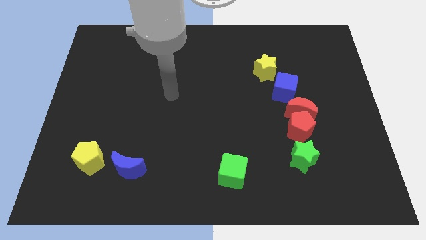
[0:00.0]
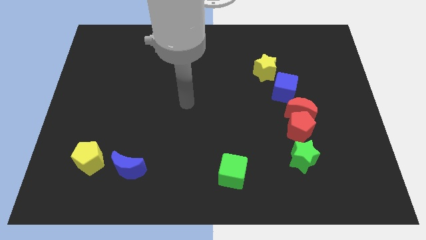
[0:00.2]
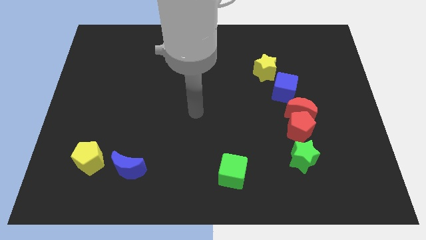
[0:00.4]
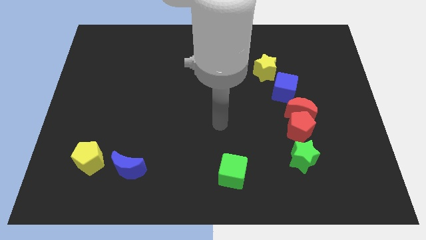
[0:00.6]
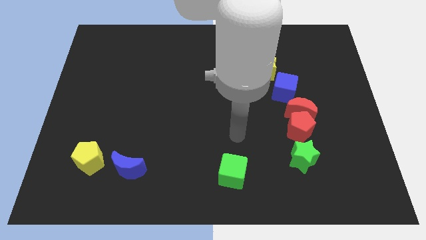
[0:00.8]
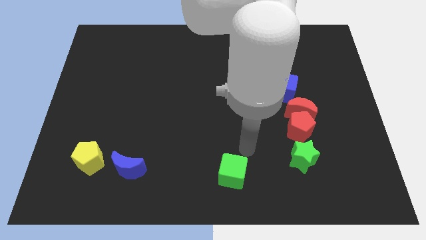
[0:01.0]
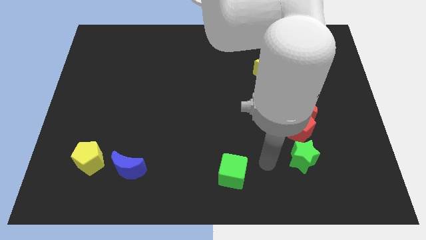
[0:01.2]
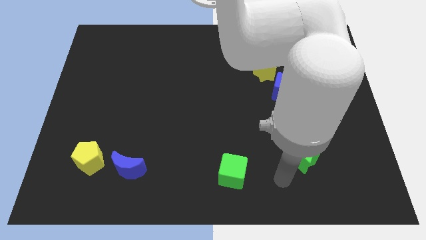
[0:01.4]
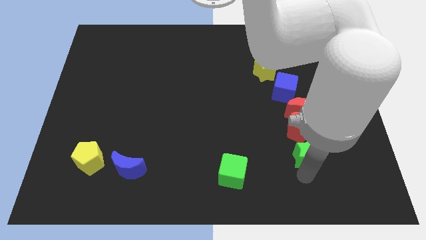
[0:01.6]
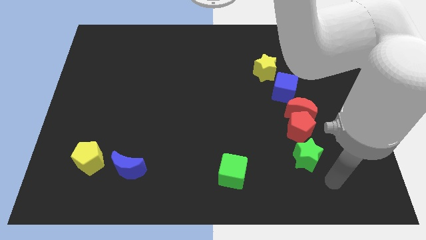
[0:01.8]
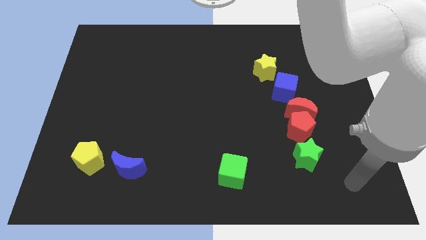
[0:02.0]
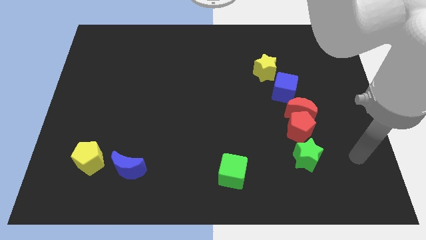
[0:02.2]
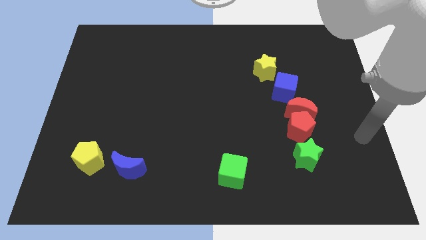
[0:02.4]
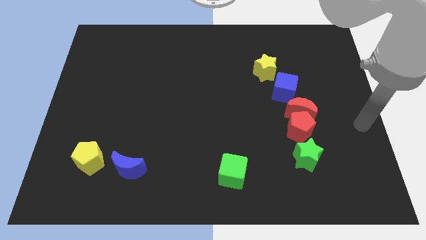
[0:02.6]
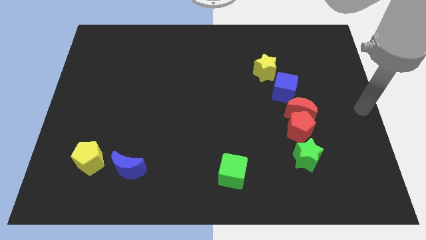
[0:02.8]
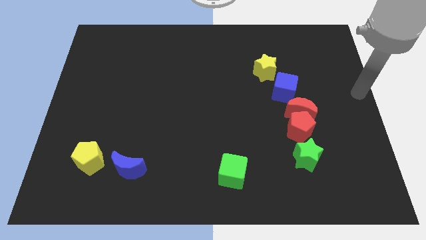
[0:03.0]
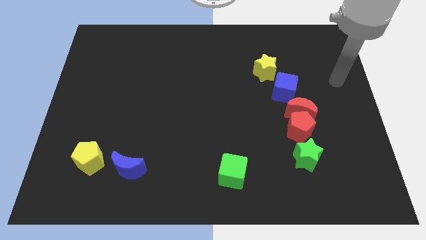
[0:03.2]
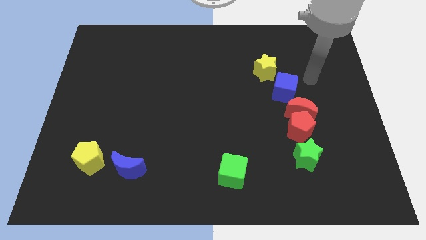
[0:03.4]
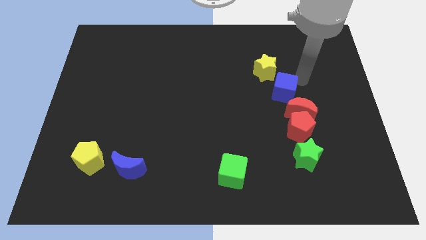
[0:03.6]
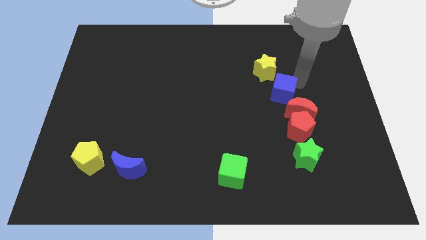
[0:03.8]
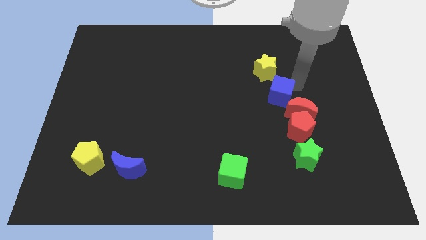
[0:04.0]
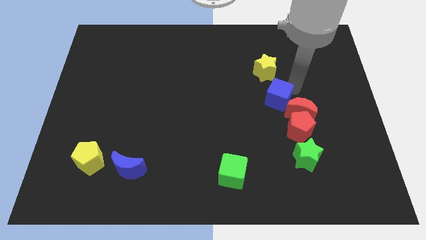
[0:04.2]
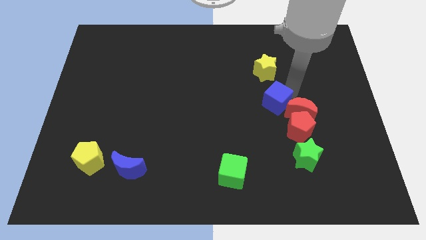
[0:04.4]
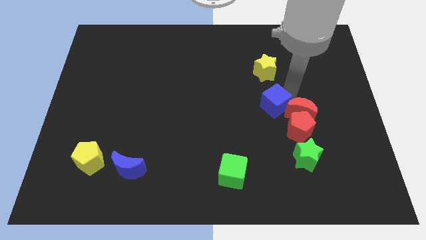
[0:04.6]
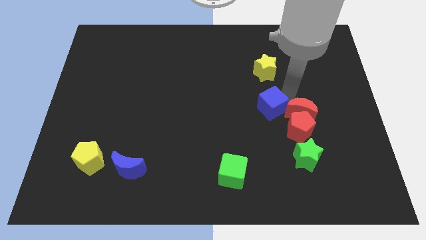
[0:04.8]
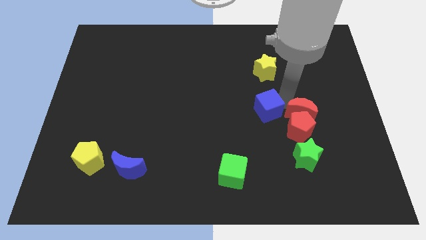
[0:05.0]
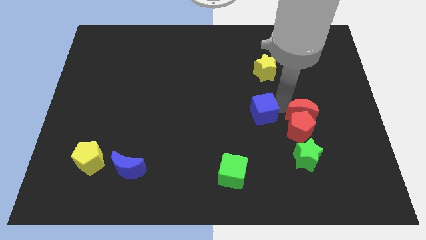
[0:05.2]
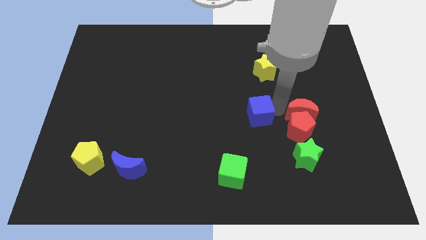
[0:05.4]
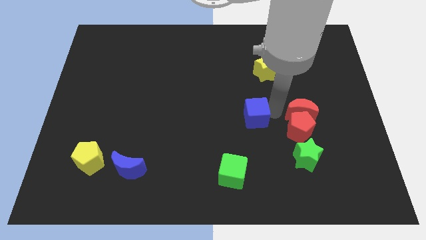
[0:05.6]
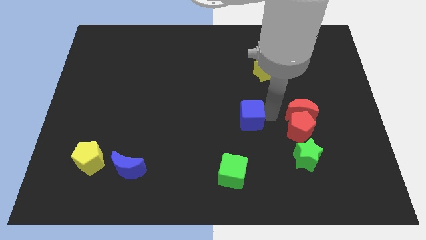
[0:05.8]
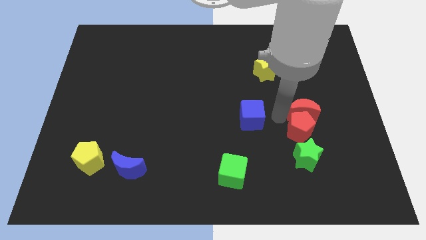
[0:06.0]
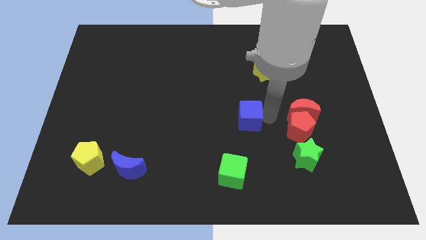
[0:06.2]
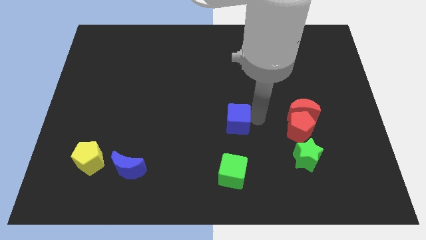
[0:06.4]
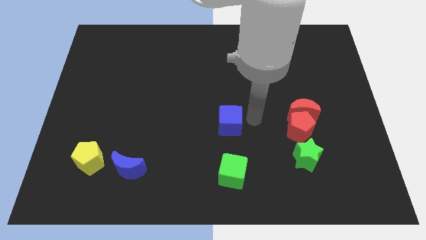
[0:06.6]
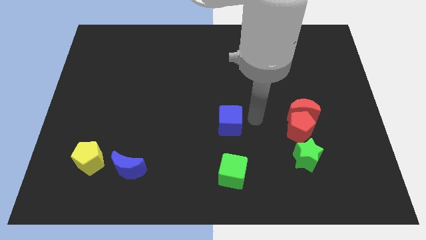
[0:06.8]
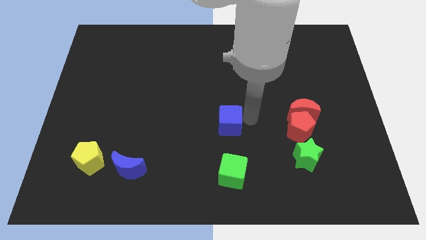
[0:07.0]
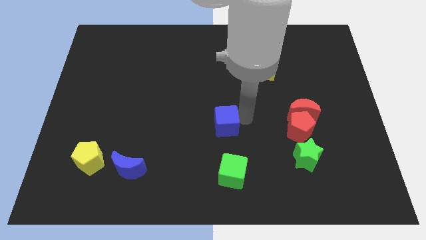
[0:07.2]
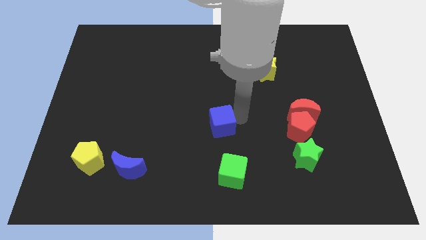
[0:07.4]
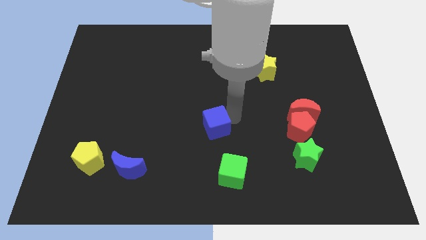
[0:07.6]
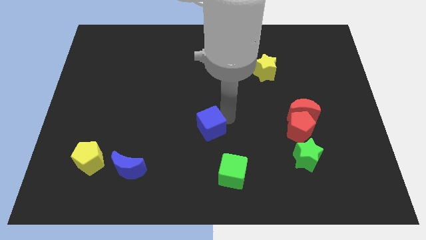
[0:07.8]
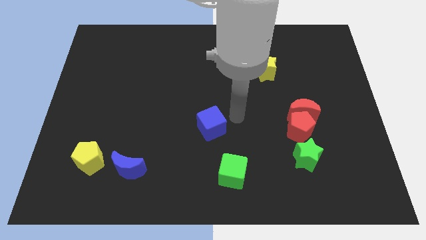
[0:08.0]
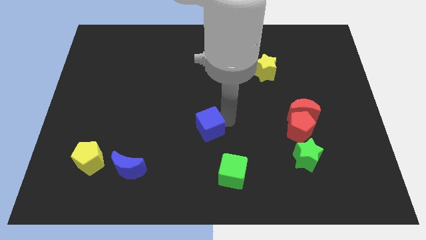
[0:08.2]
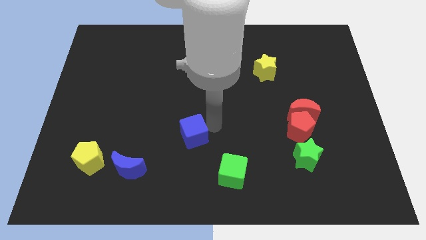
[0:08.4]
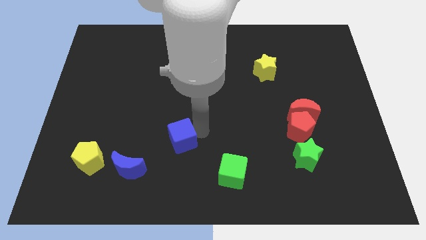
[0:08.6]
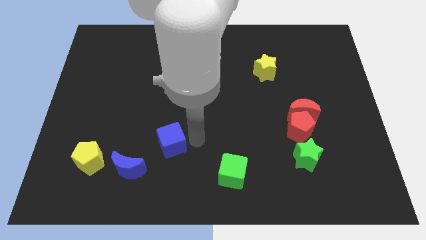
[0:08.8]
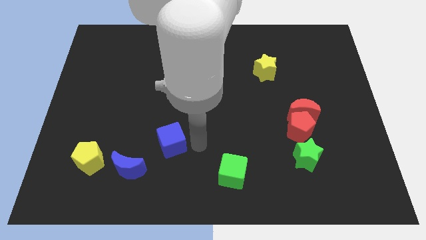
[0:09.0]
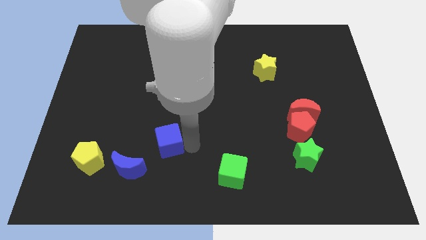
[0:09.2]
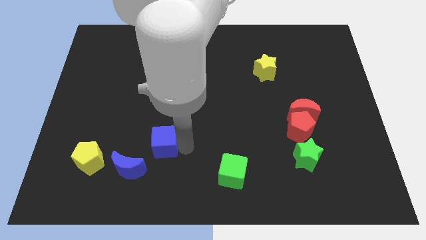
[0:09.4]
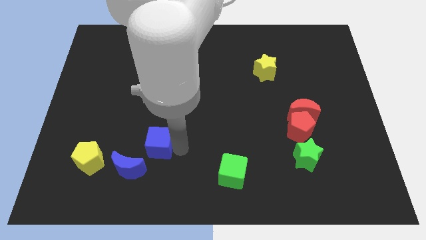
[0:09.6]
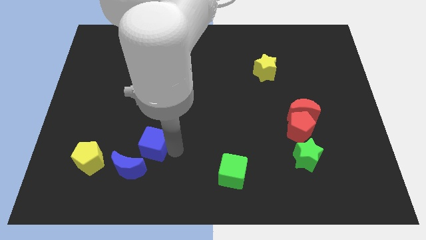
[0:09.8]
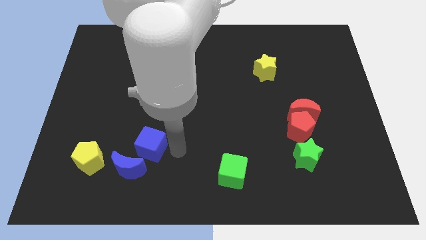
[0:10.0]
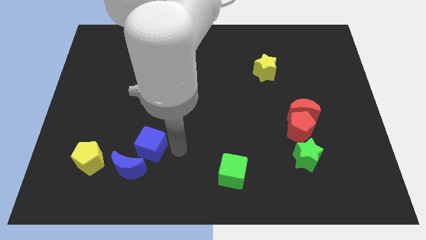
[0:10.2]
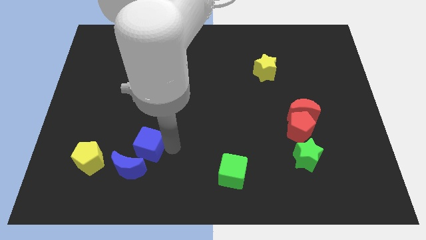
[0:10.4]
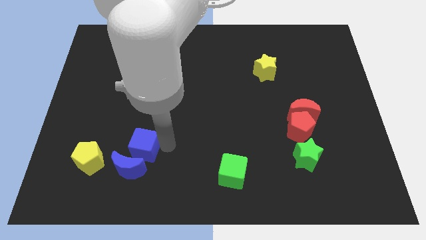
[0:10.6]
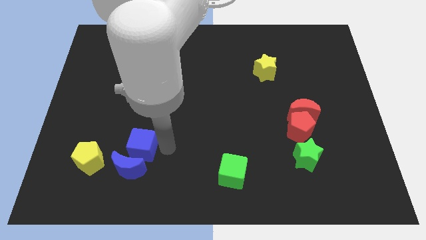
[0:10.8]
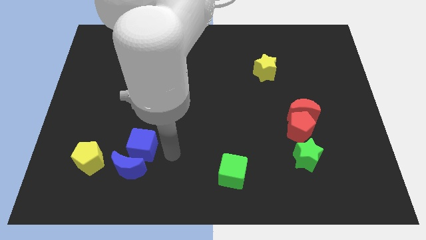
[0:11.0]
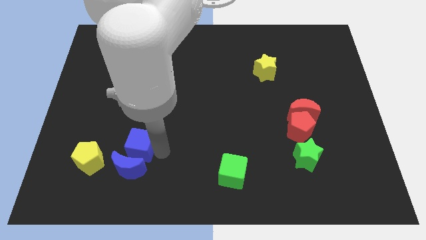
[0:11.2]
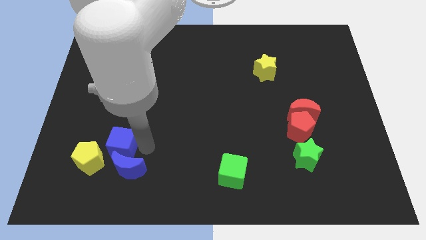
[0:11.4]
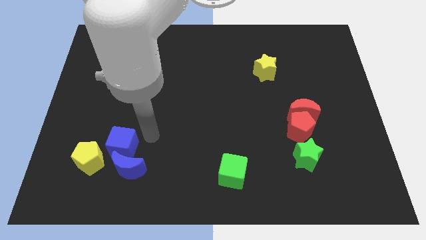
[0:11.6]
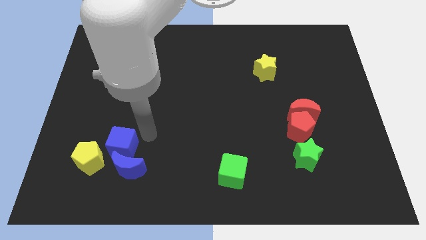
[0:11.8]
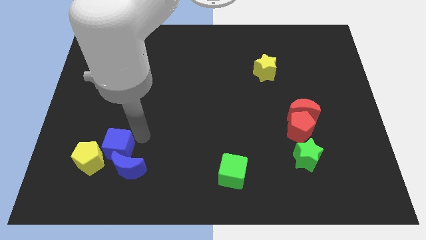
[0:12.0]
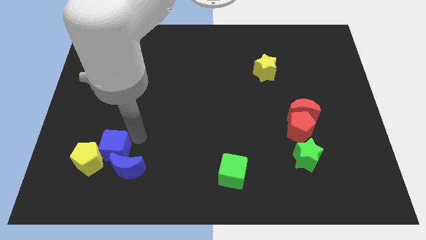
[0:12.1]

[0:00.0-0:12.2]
put the blue cube towards the yellow pentagon

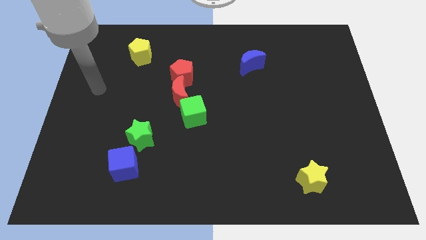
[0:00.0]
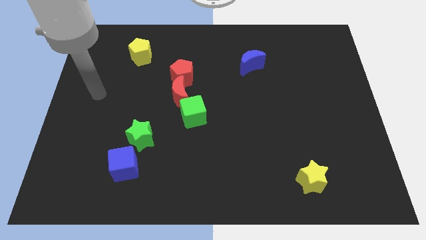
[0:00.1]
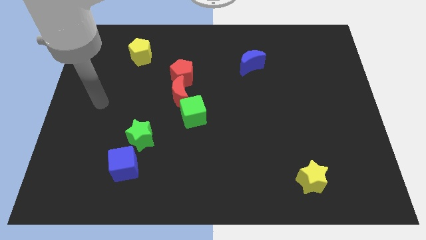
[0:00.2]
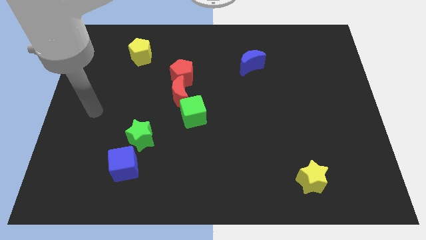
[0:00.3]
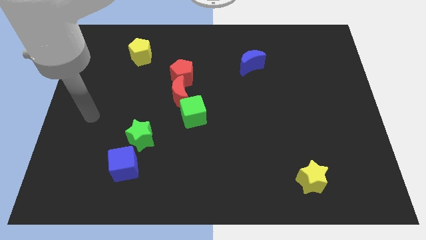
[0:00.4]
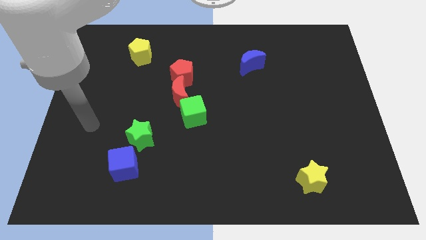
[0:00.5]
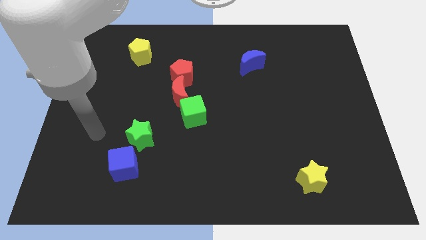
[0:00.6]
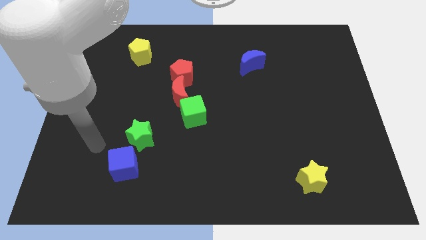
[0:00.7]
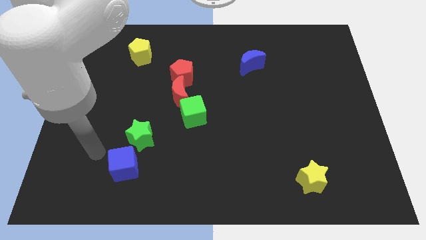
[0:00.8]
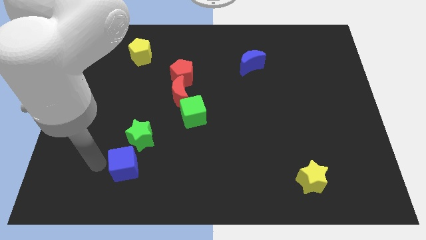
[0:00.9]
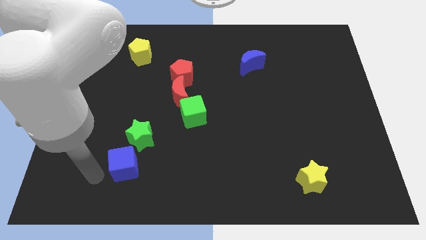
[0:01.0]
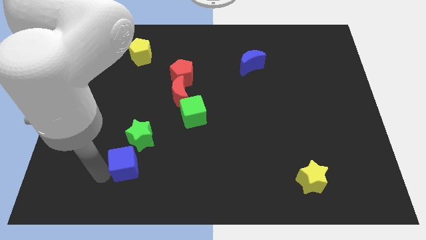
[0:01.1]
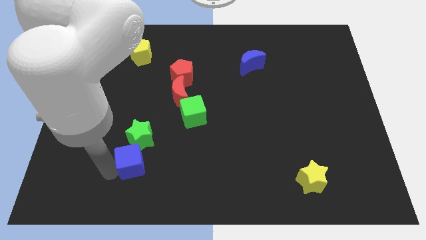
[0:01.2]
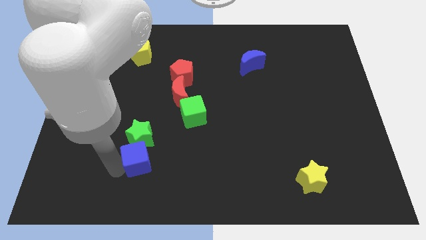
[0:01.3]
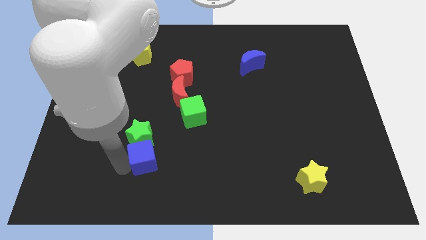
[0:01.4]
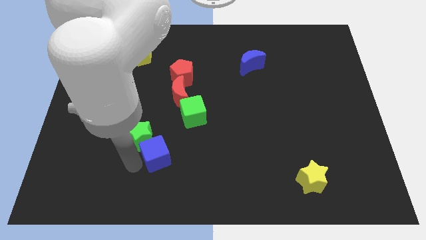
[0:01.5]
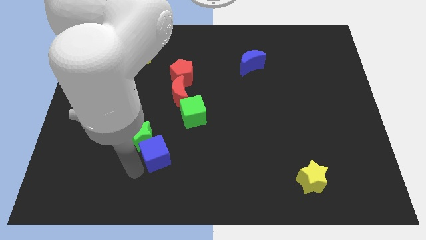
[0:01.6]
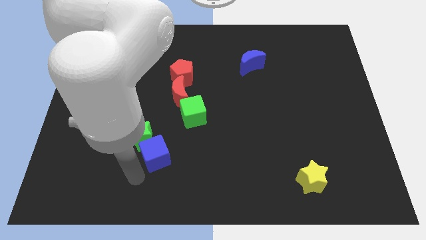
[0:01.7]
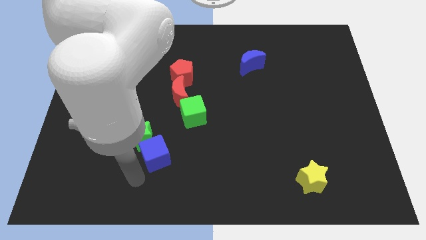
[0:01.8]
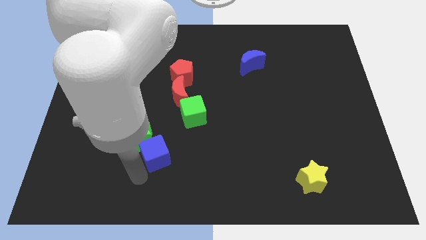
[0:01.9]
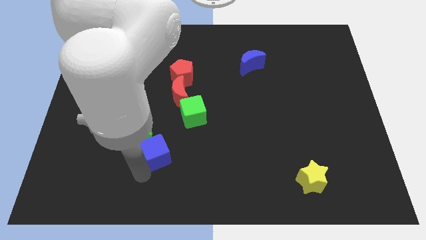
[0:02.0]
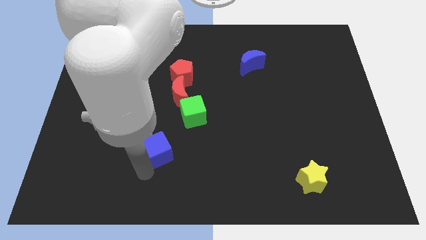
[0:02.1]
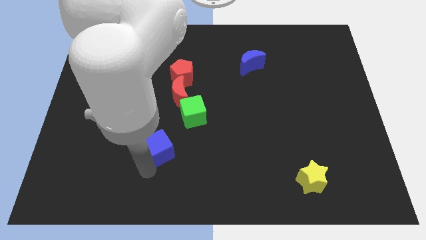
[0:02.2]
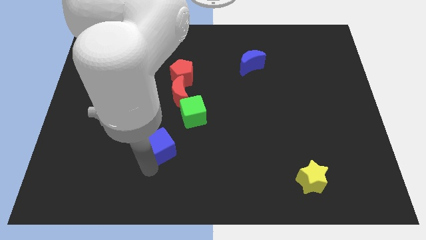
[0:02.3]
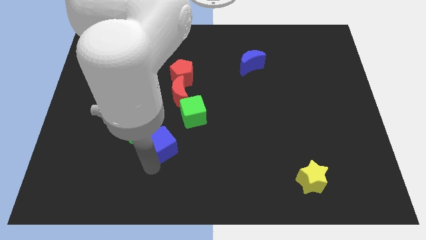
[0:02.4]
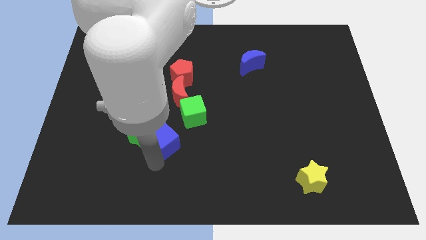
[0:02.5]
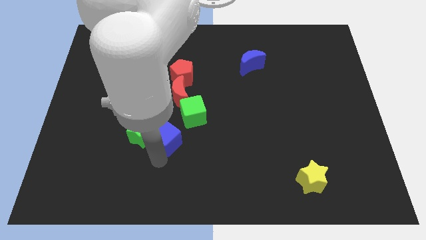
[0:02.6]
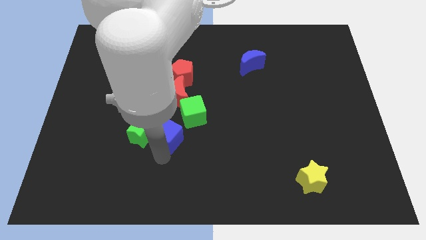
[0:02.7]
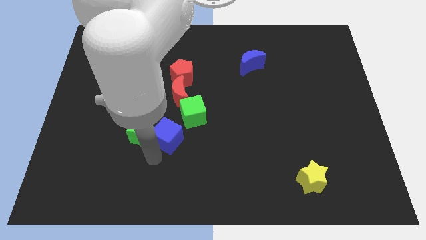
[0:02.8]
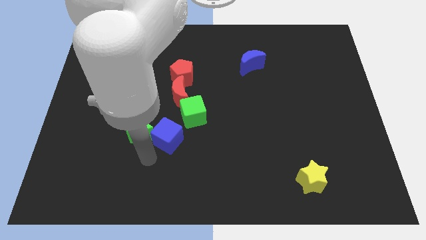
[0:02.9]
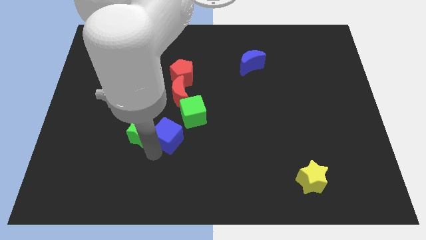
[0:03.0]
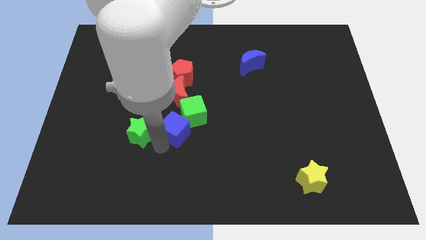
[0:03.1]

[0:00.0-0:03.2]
slide the blue cube close to the green cube
